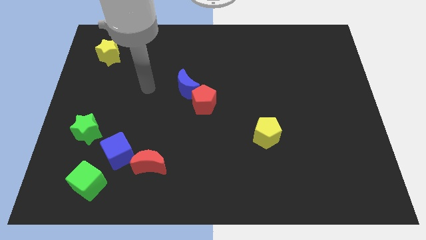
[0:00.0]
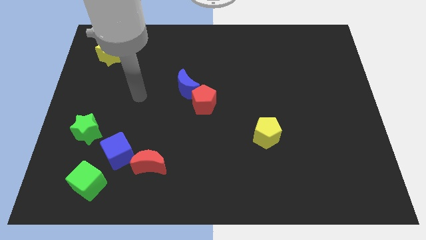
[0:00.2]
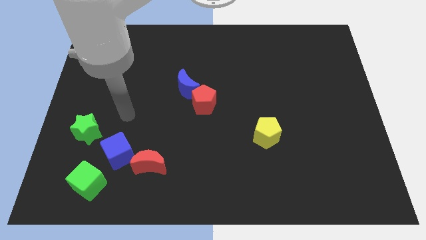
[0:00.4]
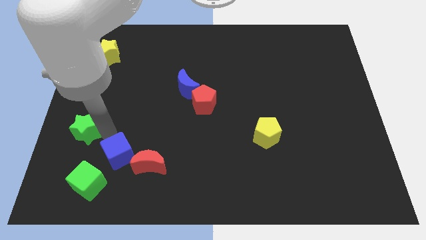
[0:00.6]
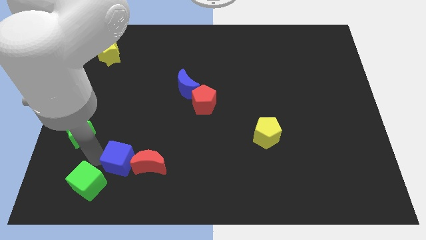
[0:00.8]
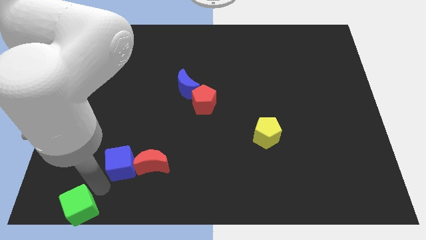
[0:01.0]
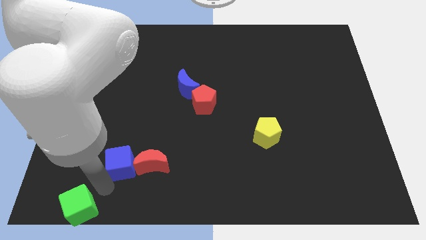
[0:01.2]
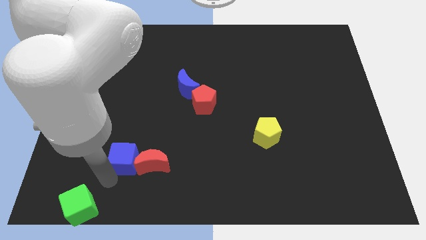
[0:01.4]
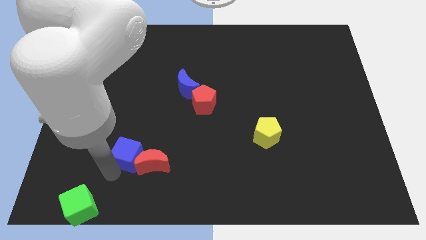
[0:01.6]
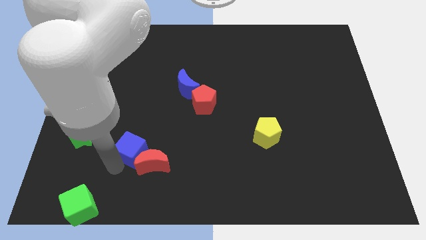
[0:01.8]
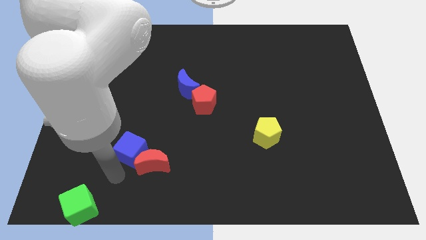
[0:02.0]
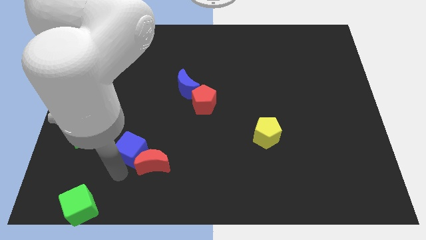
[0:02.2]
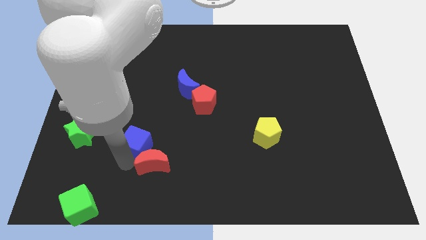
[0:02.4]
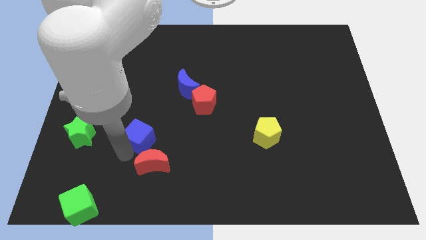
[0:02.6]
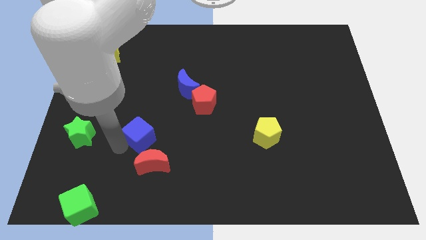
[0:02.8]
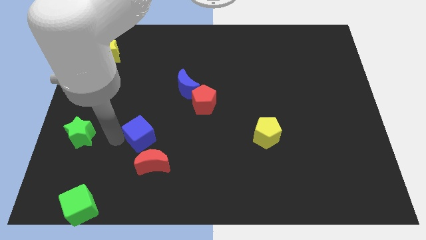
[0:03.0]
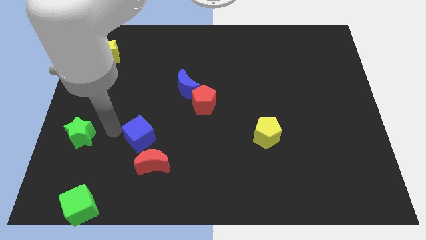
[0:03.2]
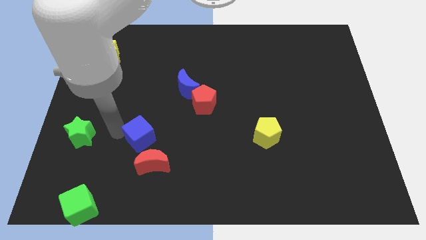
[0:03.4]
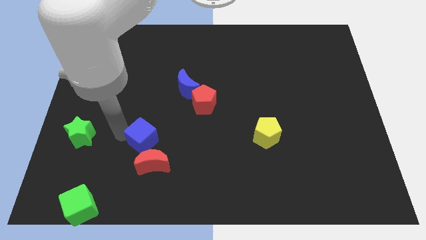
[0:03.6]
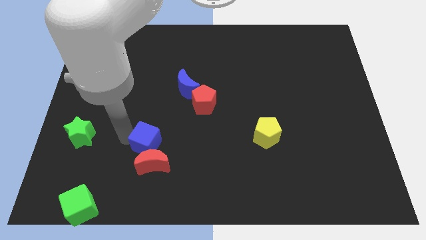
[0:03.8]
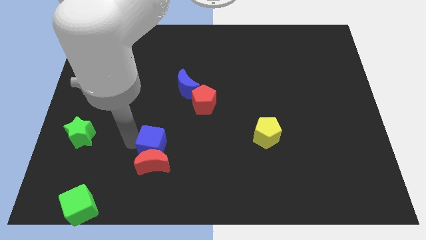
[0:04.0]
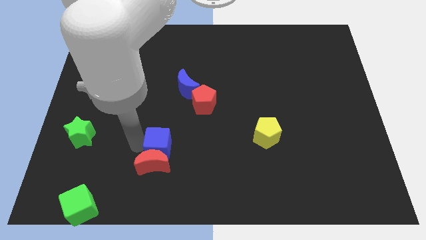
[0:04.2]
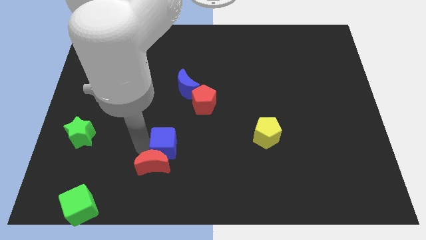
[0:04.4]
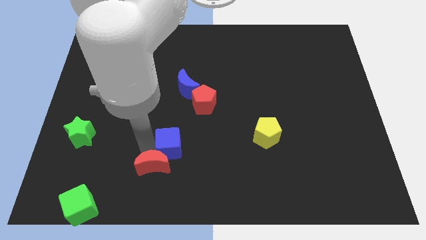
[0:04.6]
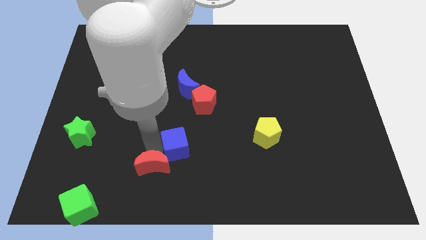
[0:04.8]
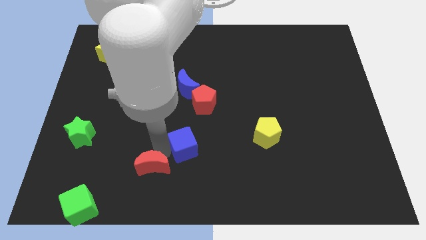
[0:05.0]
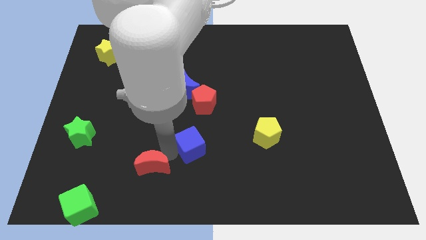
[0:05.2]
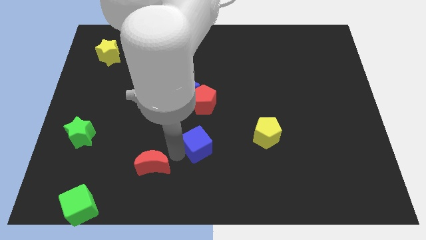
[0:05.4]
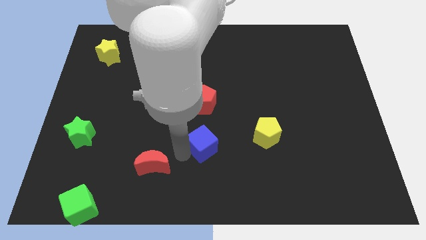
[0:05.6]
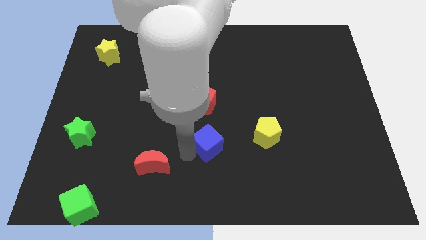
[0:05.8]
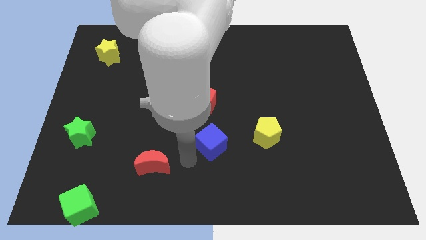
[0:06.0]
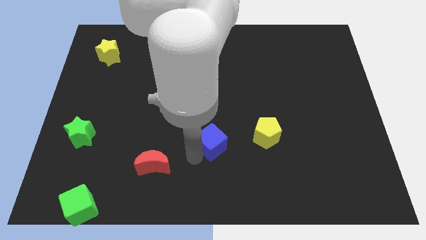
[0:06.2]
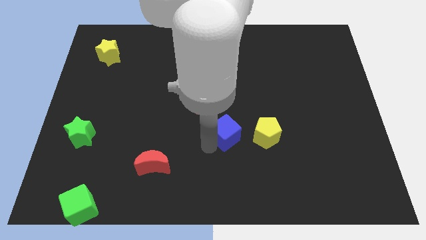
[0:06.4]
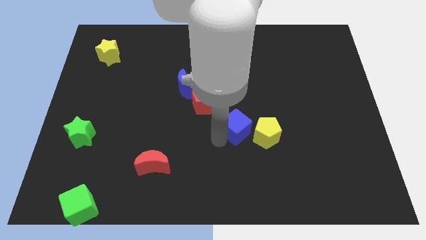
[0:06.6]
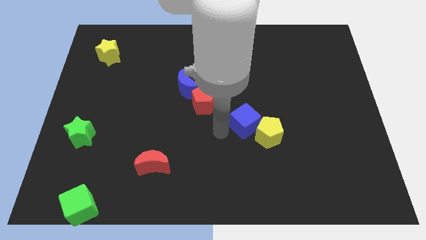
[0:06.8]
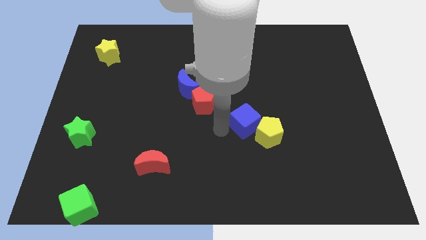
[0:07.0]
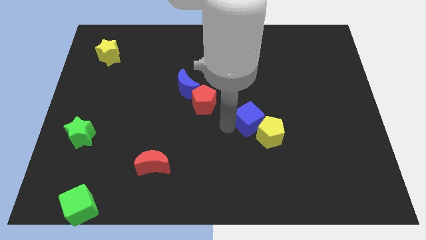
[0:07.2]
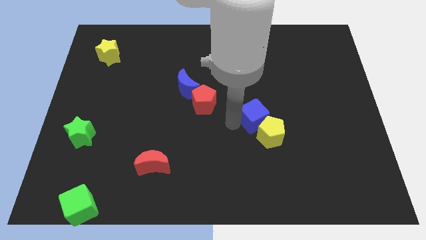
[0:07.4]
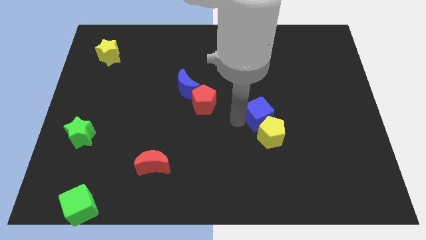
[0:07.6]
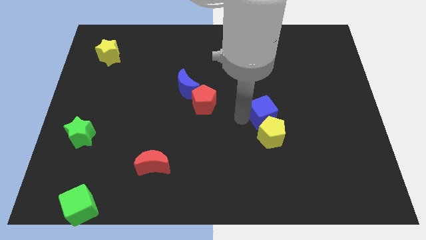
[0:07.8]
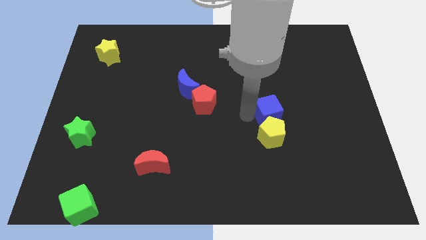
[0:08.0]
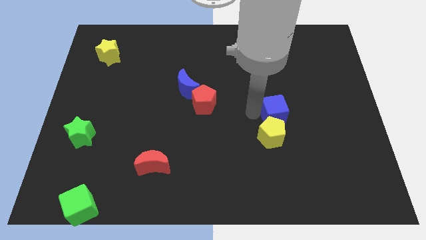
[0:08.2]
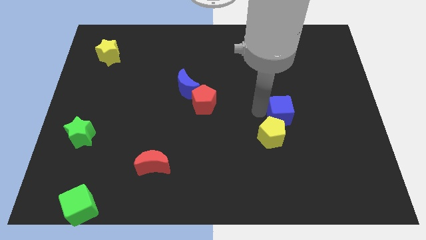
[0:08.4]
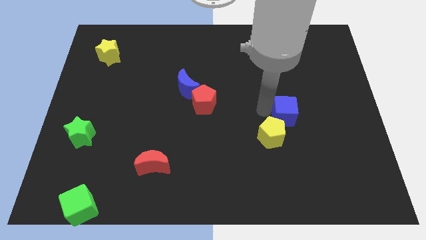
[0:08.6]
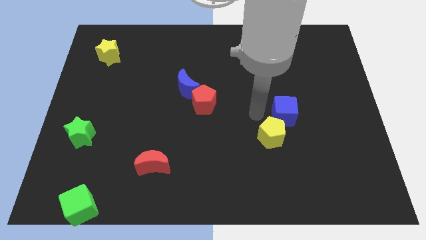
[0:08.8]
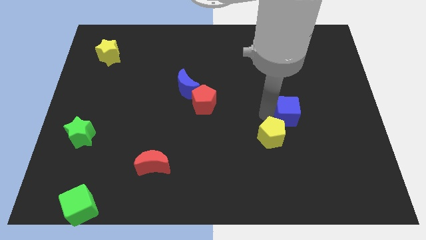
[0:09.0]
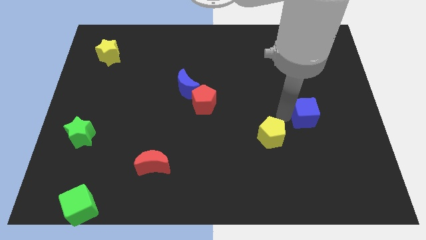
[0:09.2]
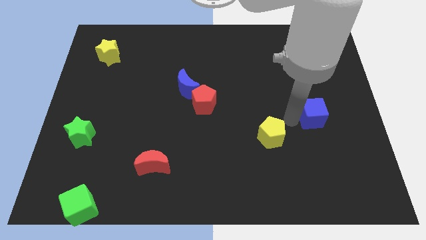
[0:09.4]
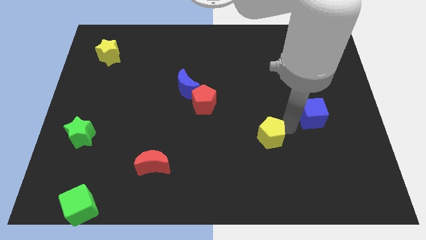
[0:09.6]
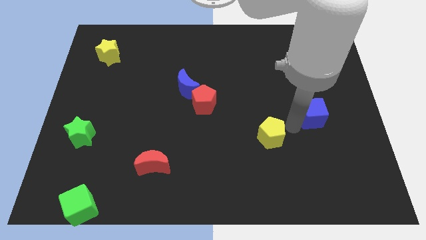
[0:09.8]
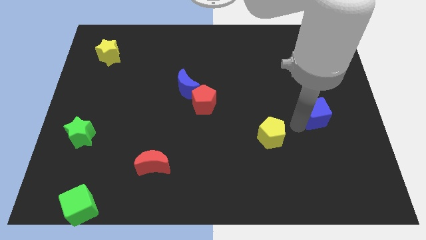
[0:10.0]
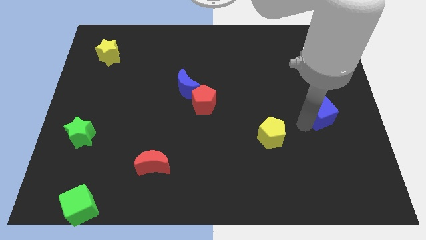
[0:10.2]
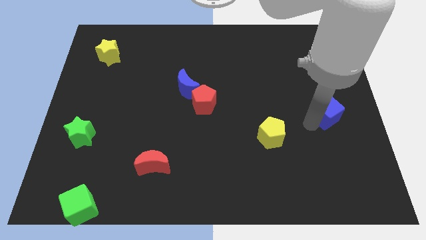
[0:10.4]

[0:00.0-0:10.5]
put the blue cube to the right side

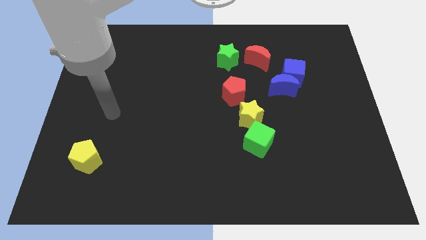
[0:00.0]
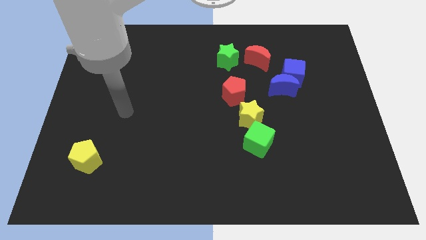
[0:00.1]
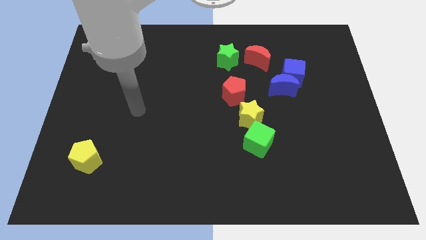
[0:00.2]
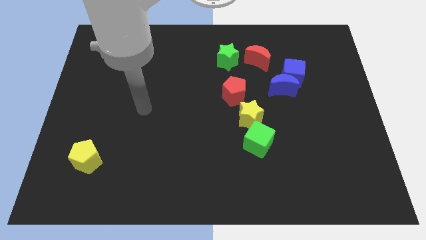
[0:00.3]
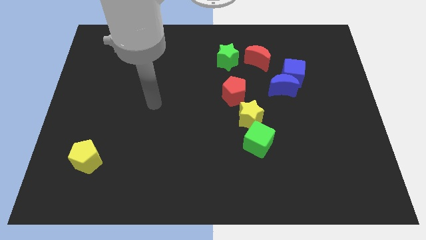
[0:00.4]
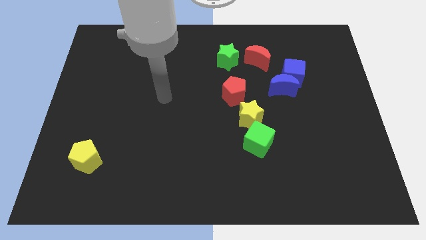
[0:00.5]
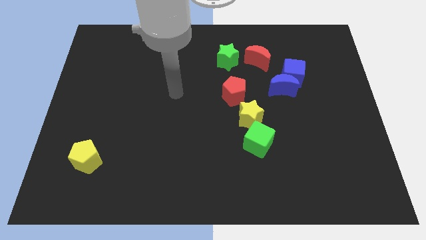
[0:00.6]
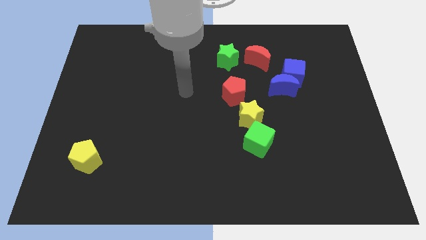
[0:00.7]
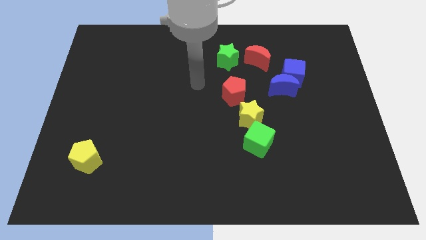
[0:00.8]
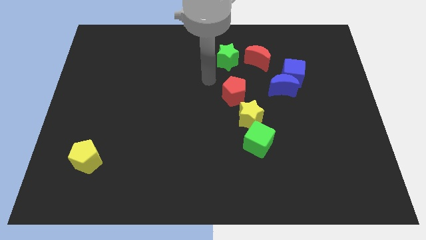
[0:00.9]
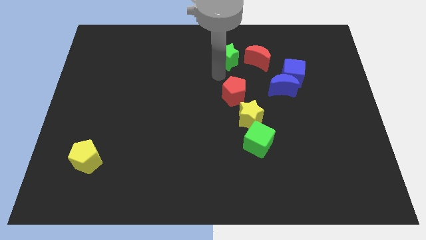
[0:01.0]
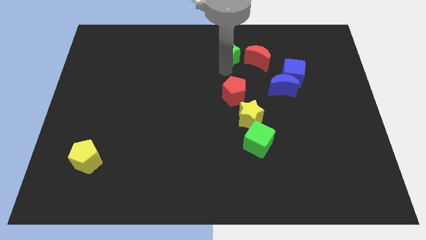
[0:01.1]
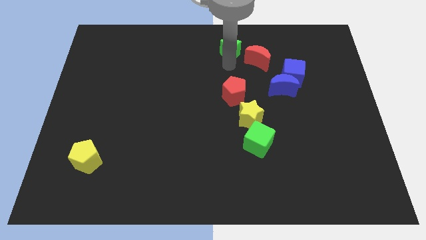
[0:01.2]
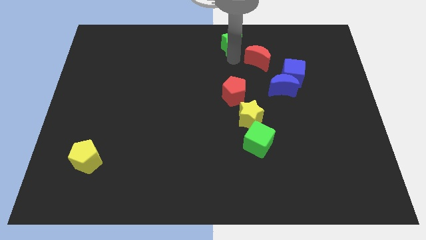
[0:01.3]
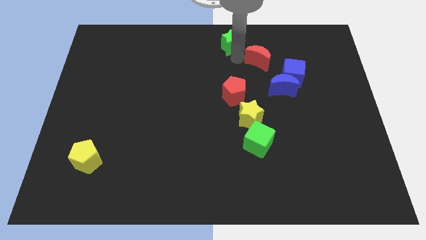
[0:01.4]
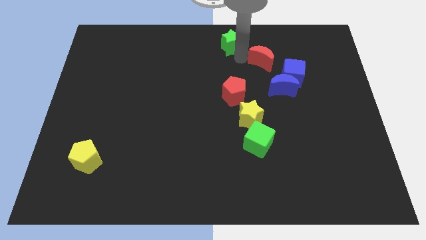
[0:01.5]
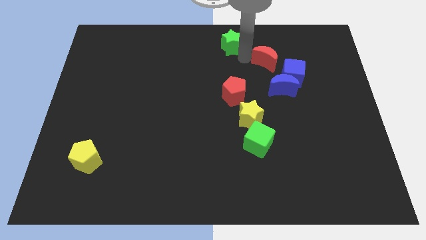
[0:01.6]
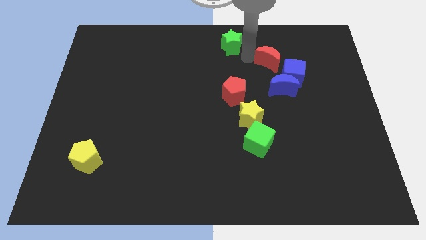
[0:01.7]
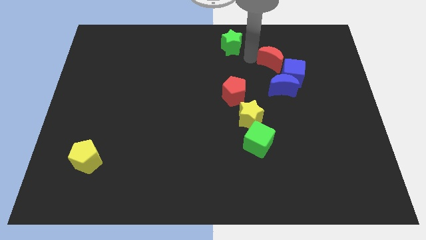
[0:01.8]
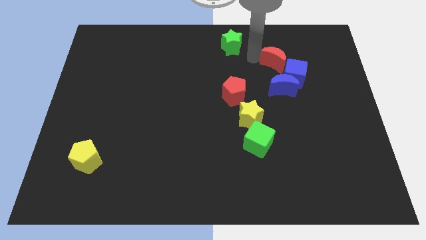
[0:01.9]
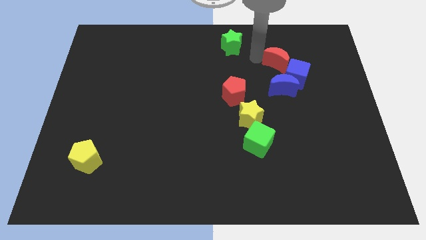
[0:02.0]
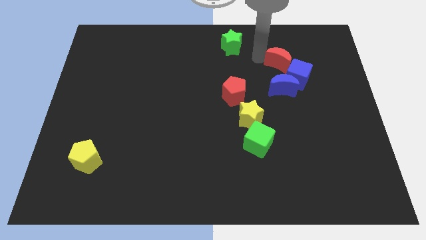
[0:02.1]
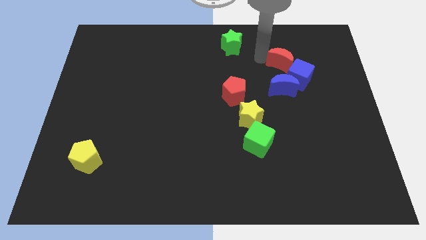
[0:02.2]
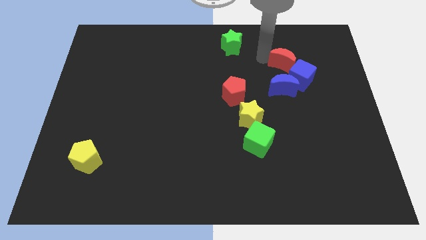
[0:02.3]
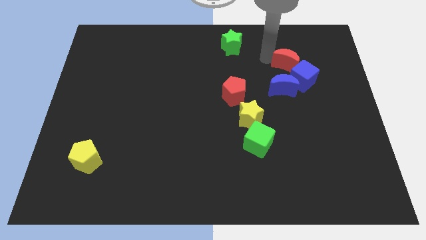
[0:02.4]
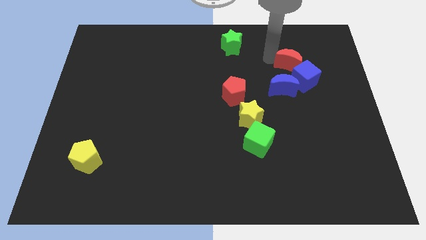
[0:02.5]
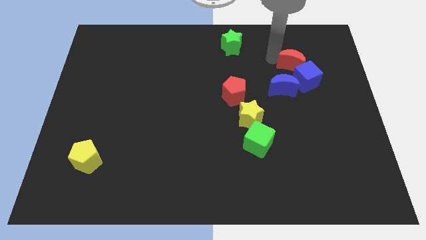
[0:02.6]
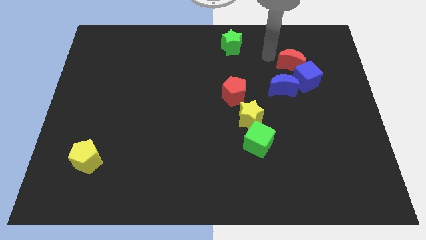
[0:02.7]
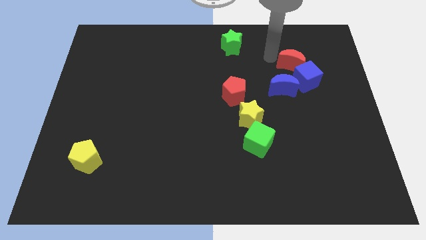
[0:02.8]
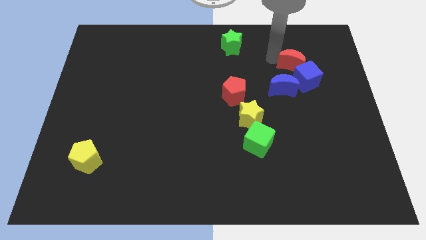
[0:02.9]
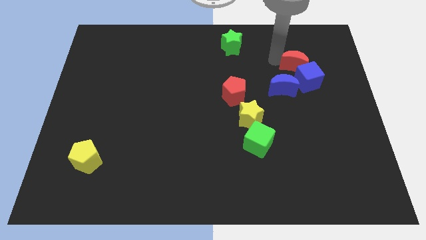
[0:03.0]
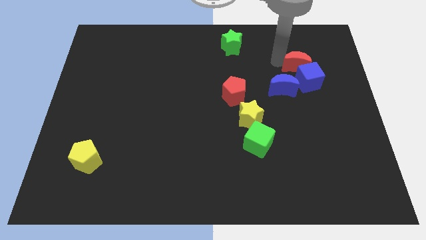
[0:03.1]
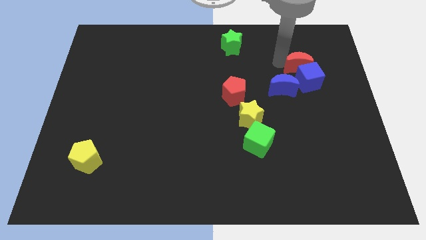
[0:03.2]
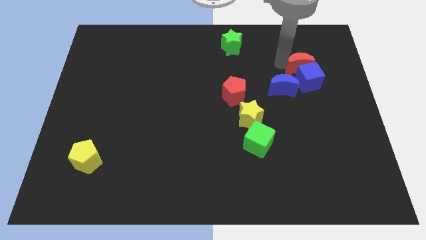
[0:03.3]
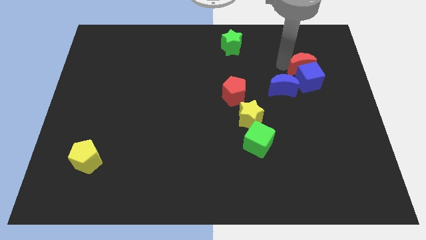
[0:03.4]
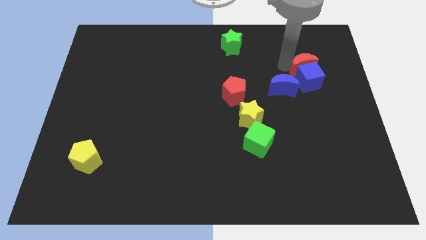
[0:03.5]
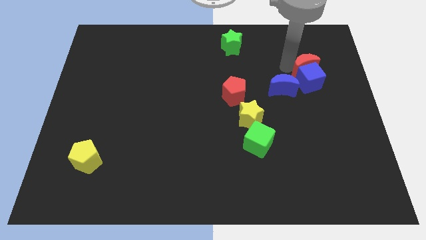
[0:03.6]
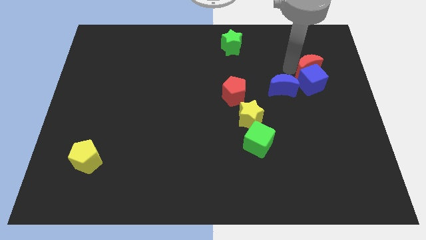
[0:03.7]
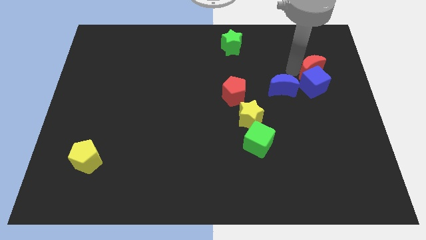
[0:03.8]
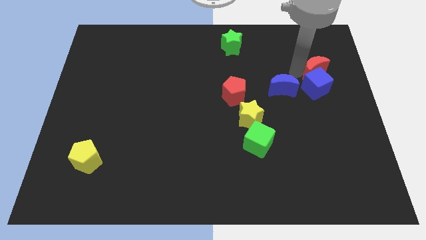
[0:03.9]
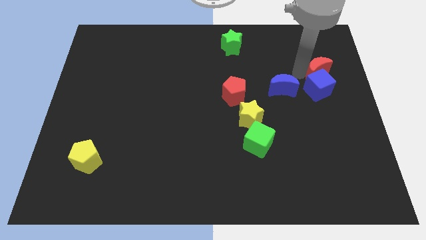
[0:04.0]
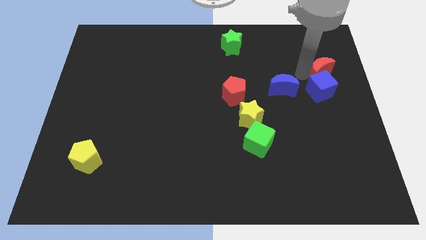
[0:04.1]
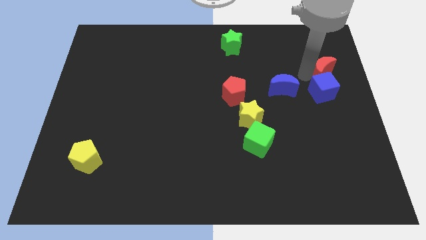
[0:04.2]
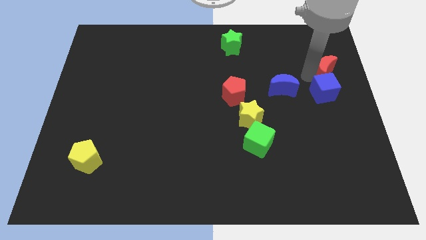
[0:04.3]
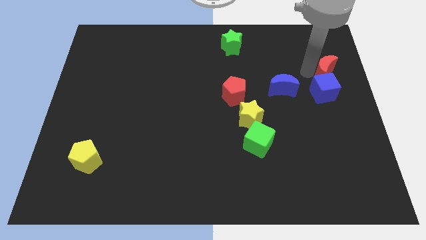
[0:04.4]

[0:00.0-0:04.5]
push the red moon to the right side
